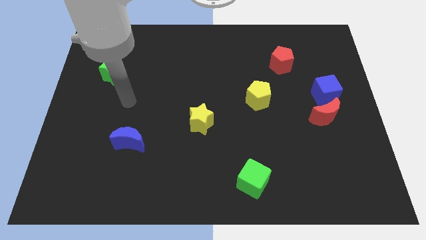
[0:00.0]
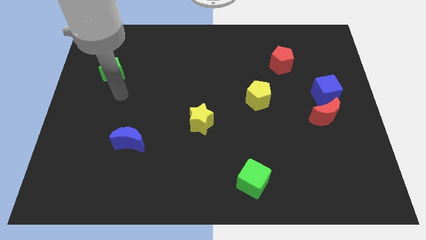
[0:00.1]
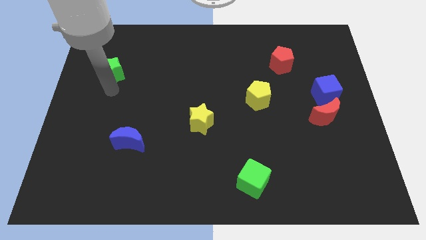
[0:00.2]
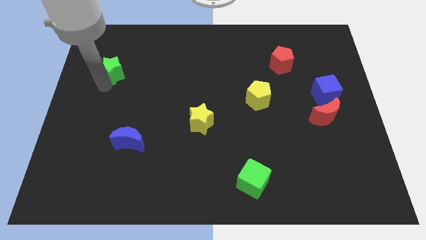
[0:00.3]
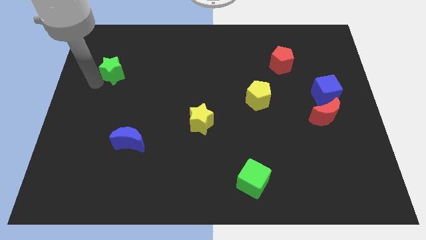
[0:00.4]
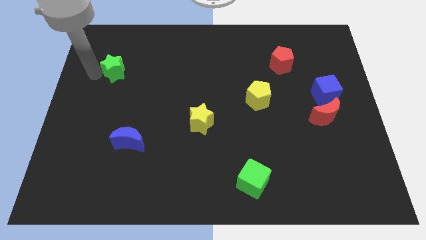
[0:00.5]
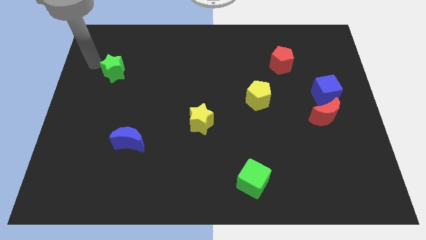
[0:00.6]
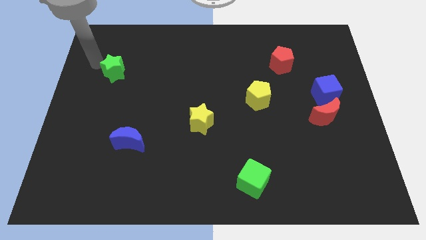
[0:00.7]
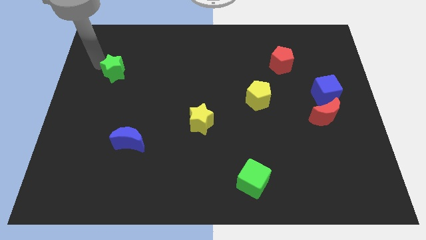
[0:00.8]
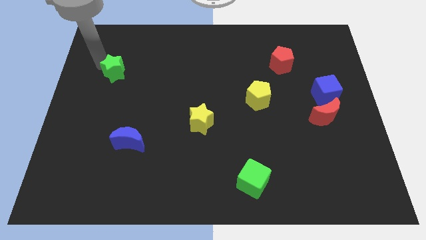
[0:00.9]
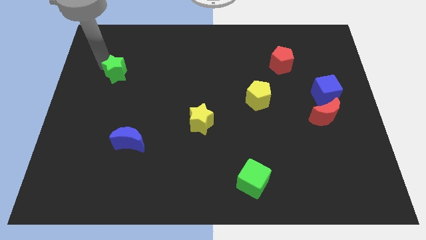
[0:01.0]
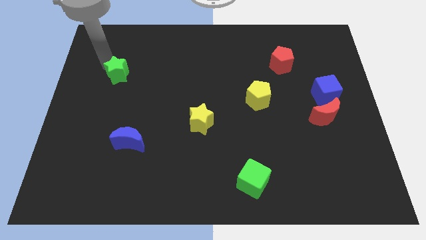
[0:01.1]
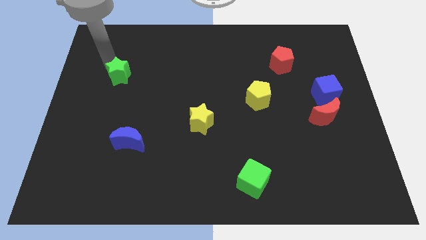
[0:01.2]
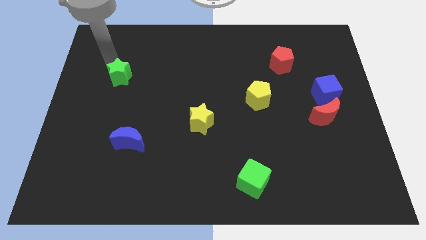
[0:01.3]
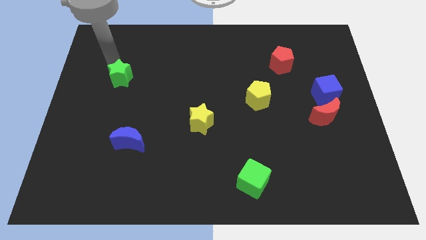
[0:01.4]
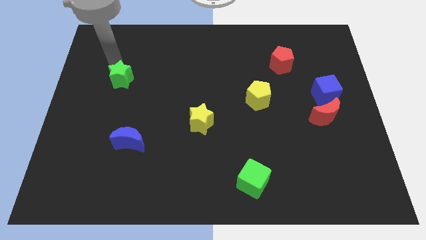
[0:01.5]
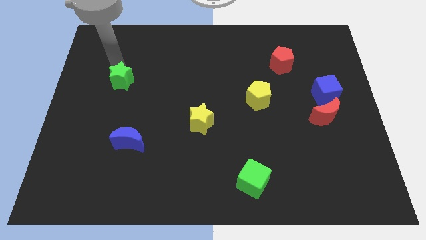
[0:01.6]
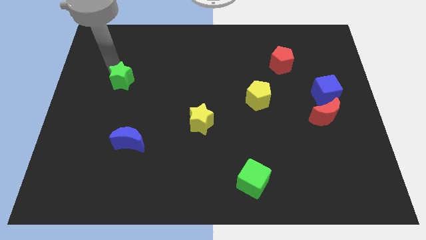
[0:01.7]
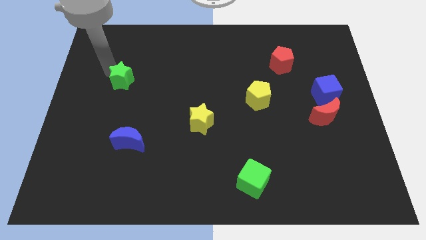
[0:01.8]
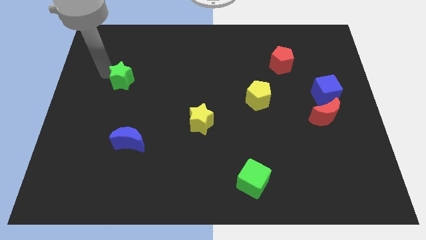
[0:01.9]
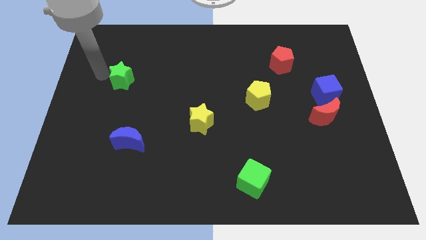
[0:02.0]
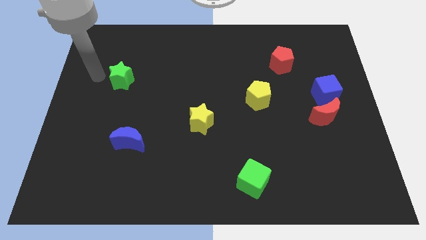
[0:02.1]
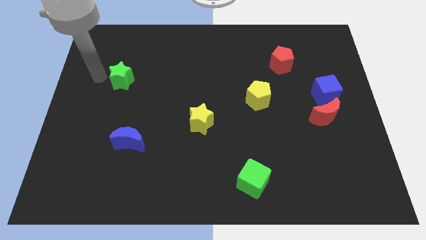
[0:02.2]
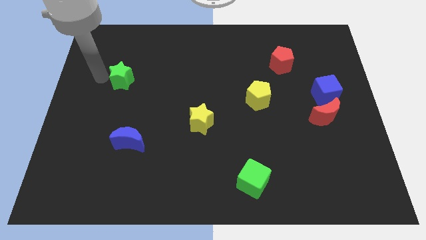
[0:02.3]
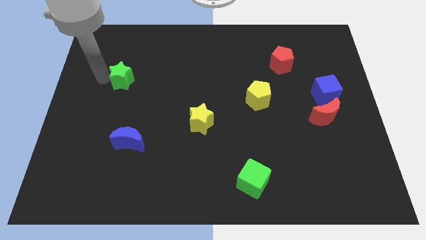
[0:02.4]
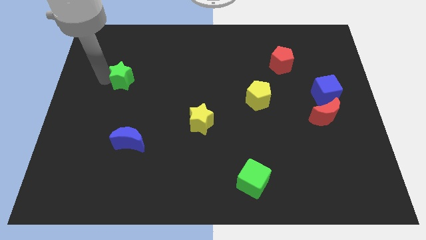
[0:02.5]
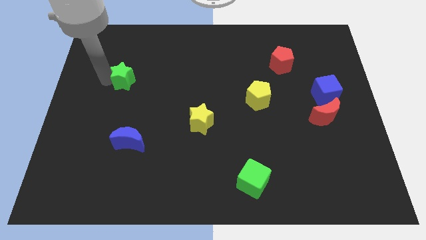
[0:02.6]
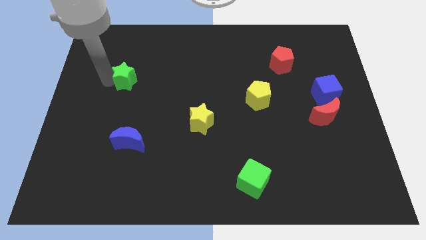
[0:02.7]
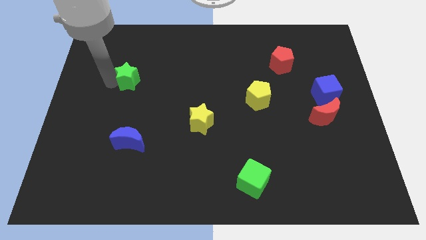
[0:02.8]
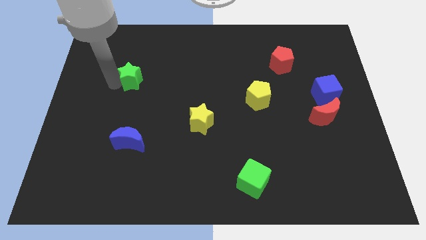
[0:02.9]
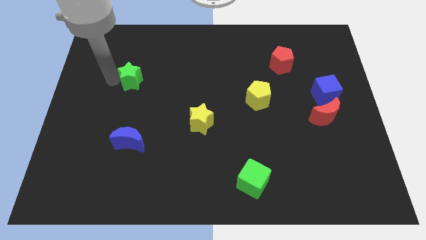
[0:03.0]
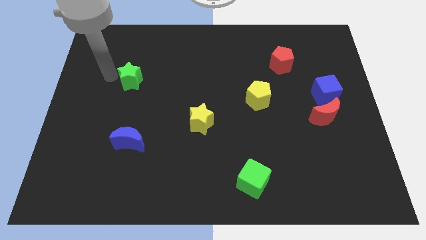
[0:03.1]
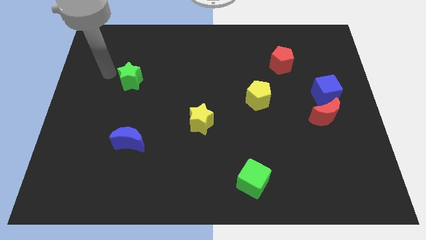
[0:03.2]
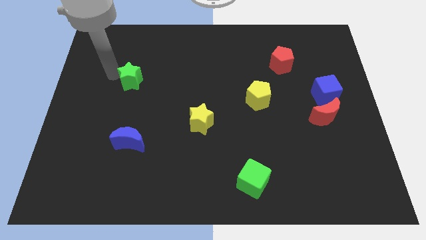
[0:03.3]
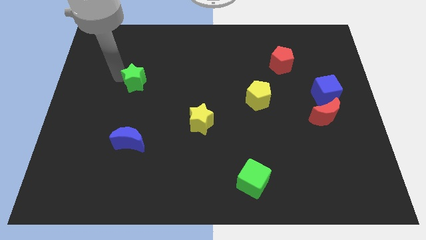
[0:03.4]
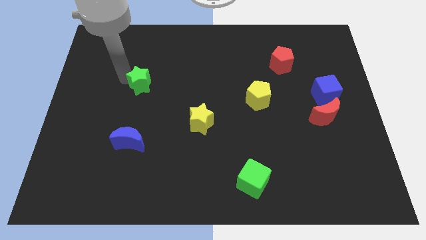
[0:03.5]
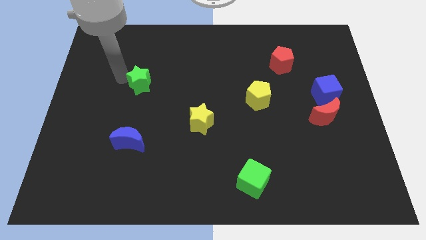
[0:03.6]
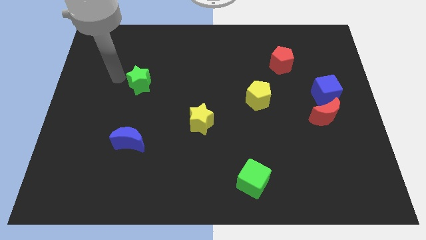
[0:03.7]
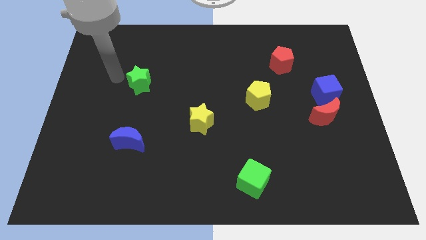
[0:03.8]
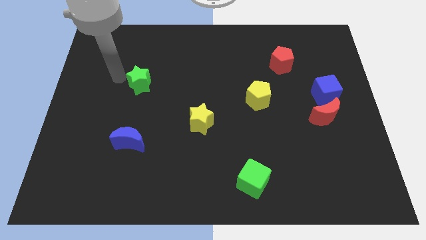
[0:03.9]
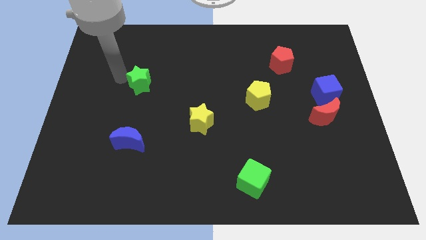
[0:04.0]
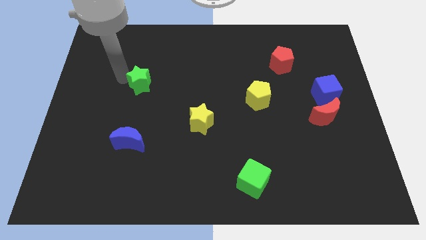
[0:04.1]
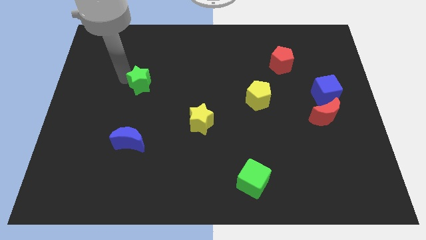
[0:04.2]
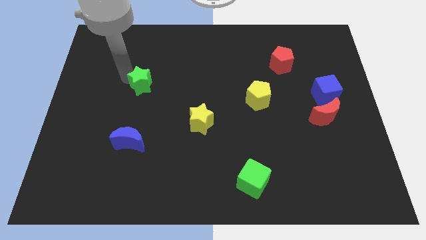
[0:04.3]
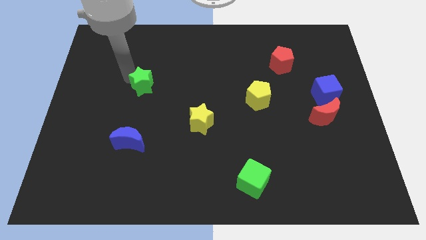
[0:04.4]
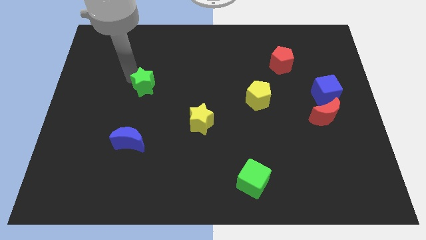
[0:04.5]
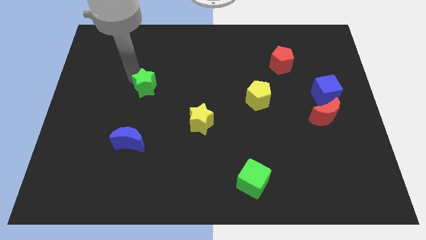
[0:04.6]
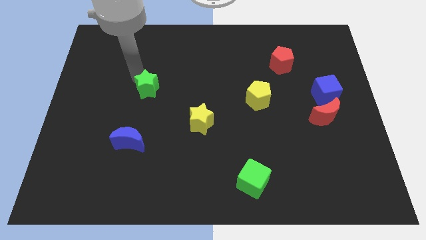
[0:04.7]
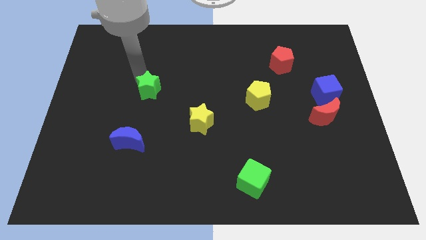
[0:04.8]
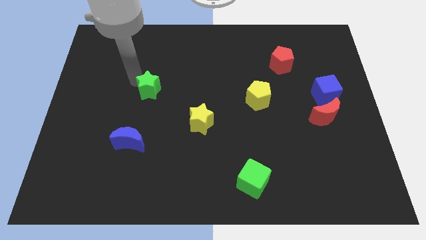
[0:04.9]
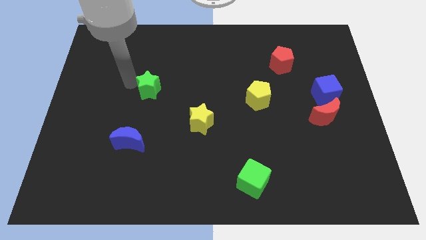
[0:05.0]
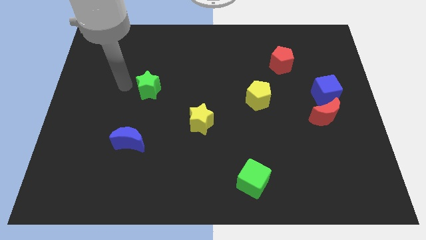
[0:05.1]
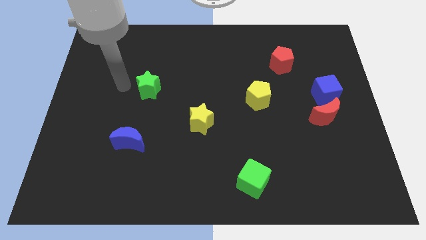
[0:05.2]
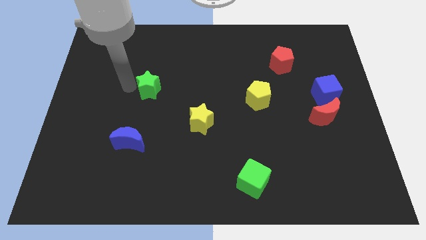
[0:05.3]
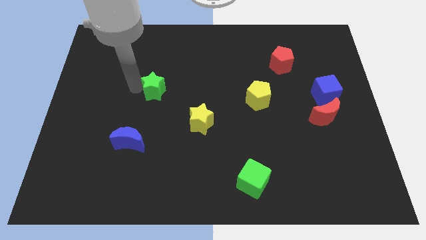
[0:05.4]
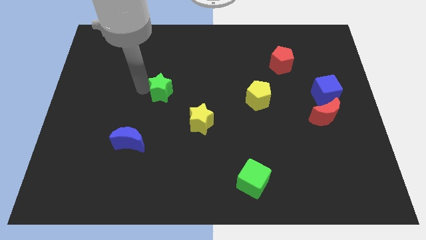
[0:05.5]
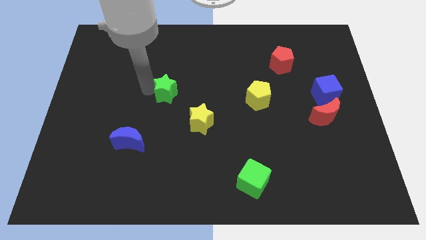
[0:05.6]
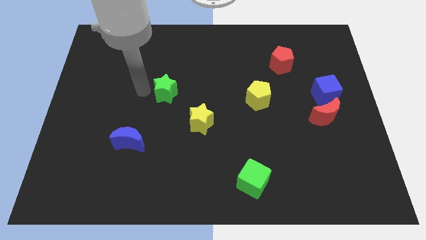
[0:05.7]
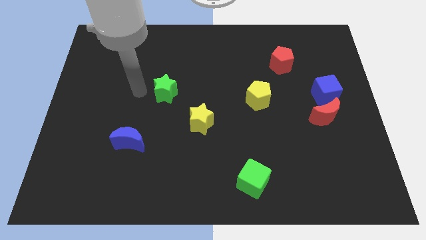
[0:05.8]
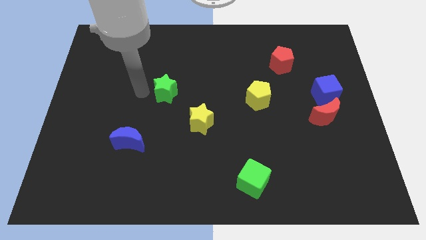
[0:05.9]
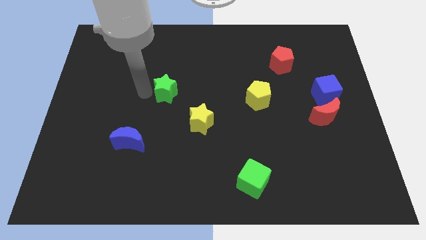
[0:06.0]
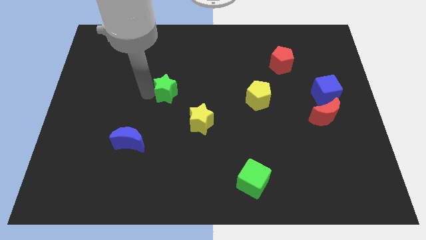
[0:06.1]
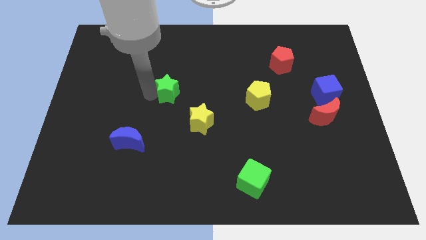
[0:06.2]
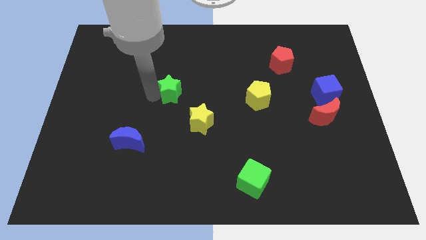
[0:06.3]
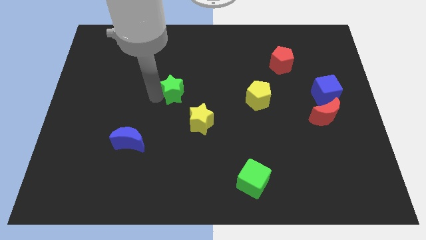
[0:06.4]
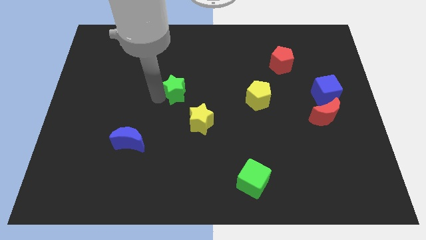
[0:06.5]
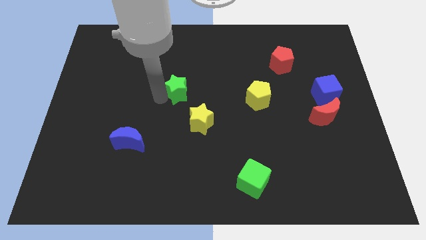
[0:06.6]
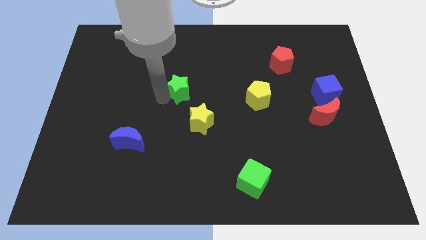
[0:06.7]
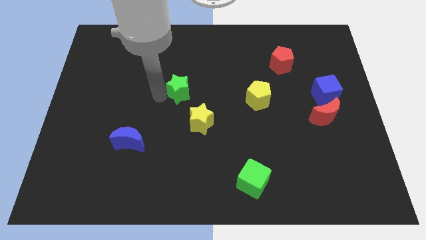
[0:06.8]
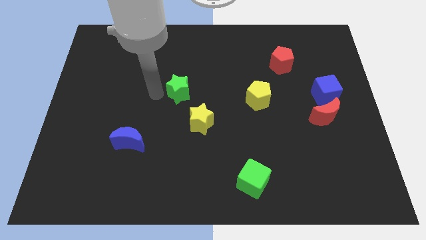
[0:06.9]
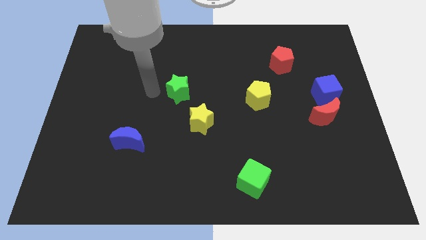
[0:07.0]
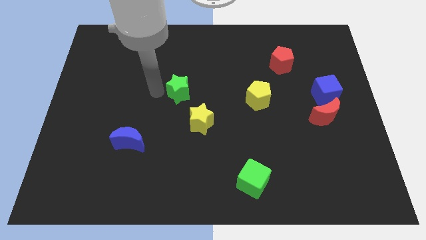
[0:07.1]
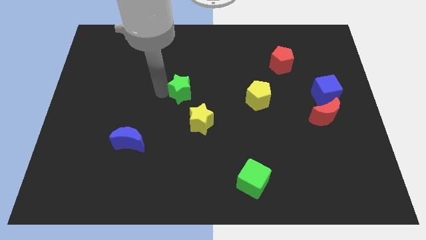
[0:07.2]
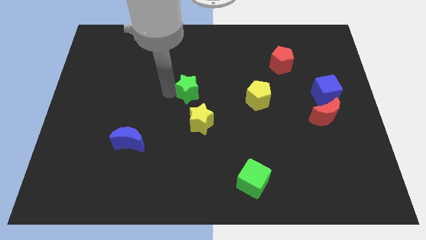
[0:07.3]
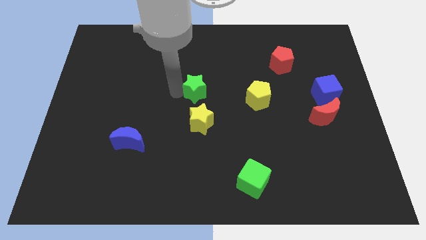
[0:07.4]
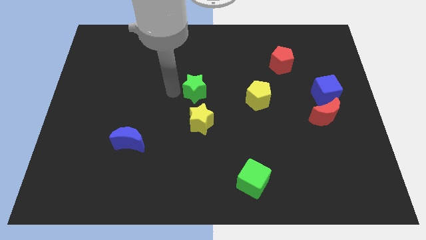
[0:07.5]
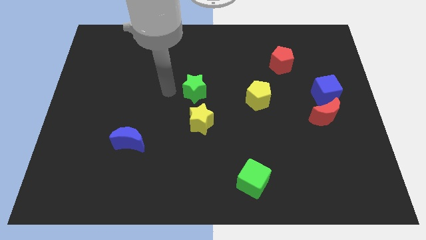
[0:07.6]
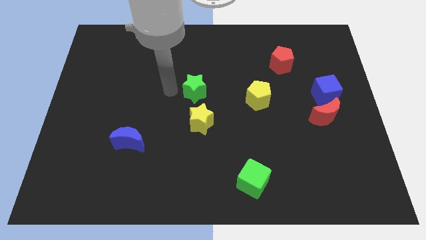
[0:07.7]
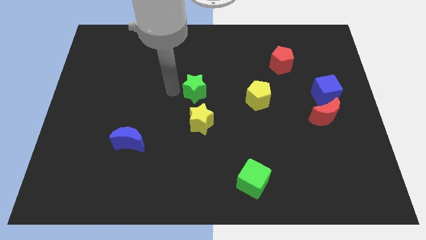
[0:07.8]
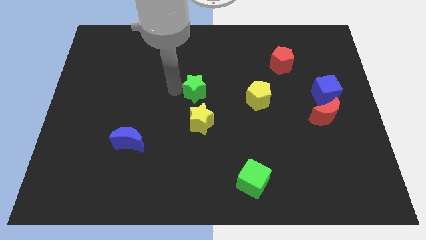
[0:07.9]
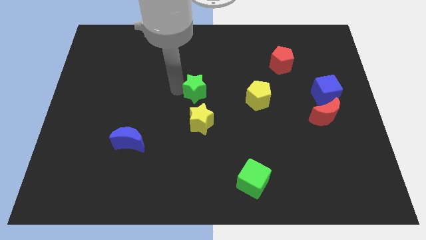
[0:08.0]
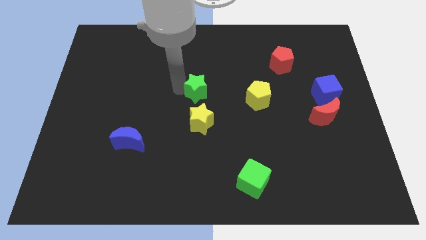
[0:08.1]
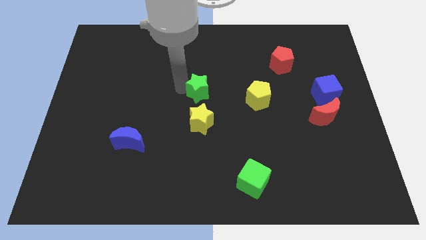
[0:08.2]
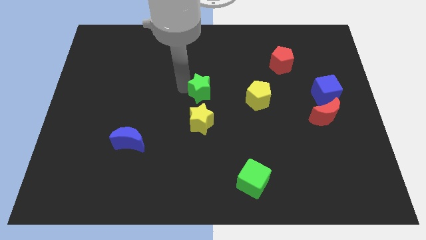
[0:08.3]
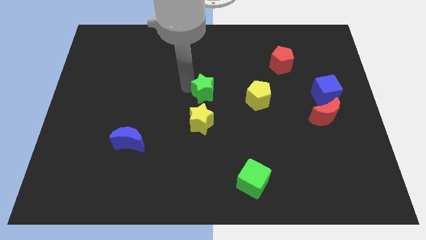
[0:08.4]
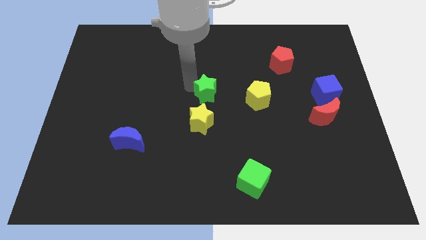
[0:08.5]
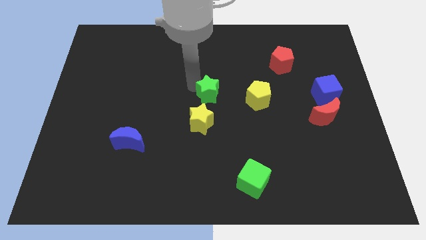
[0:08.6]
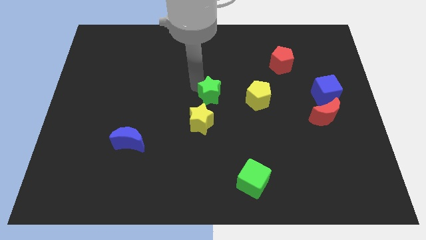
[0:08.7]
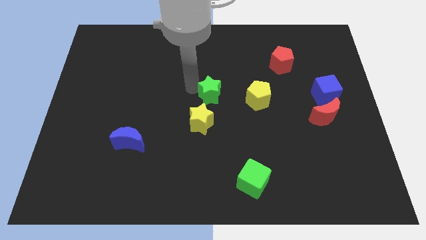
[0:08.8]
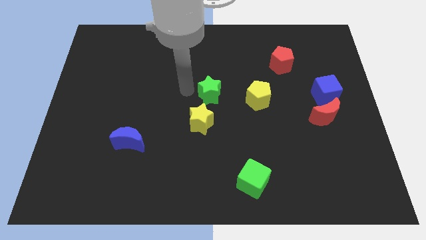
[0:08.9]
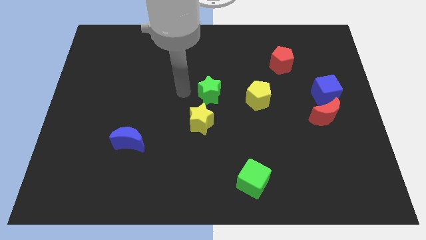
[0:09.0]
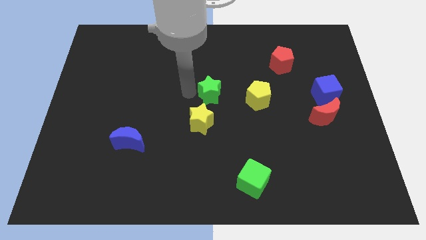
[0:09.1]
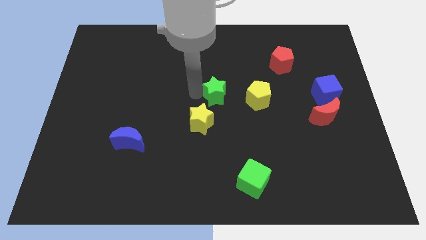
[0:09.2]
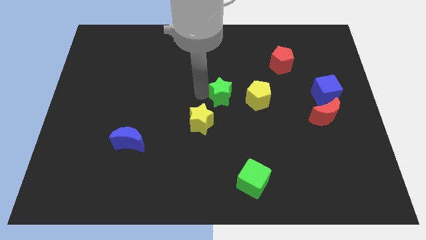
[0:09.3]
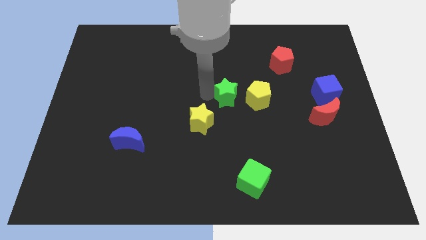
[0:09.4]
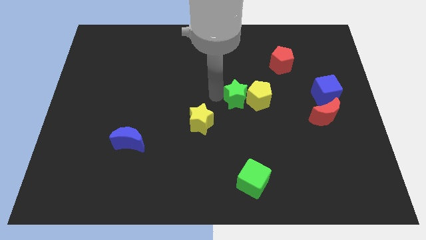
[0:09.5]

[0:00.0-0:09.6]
put the green star to the yellow pentagon
